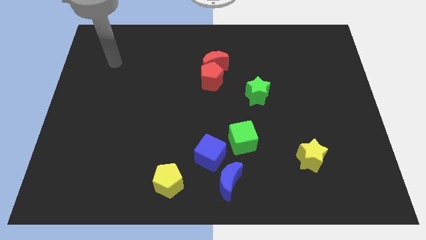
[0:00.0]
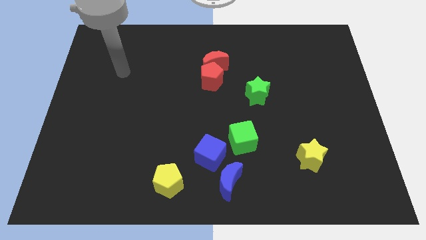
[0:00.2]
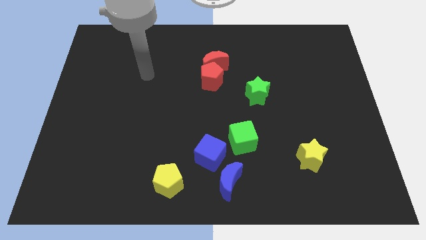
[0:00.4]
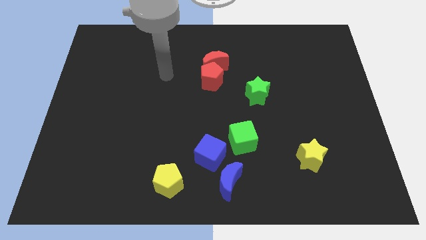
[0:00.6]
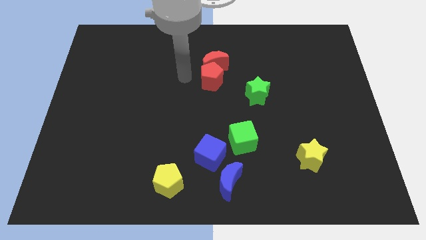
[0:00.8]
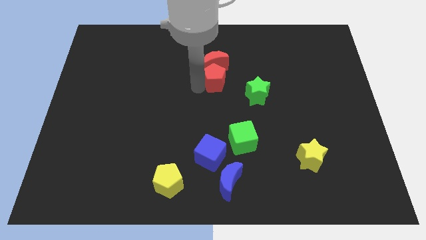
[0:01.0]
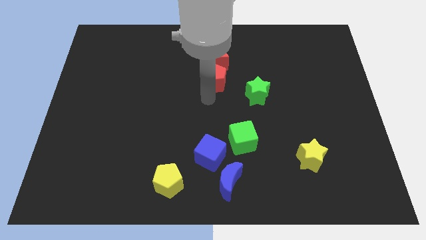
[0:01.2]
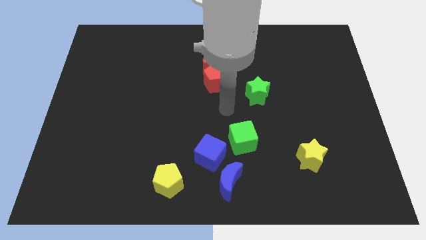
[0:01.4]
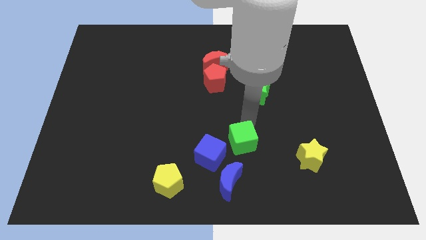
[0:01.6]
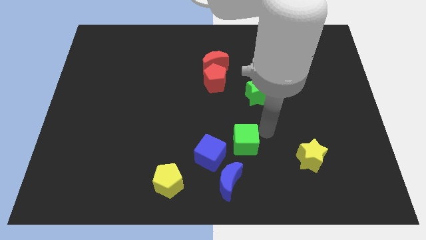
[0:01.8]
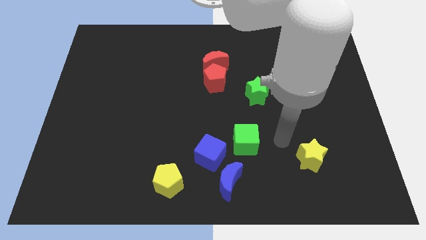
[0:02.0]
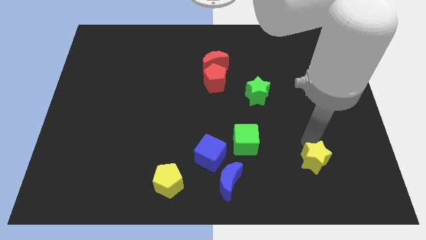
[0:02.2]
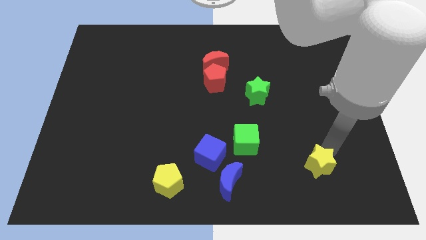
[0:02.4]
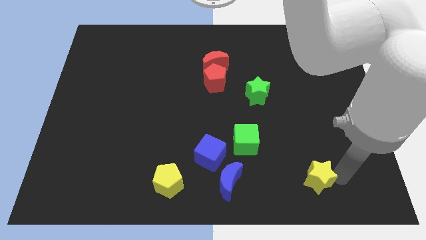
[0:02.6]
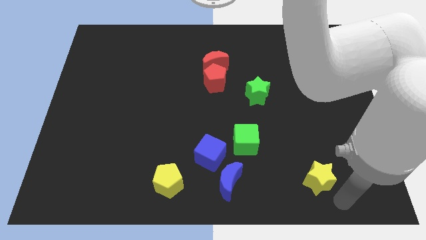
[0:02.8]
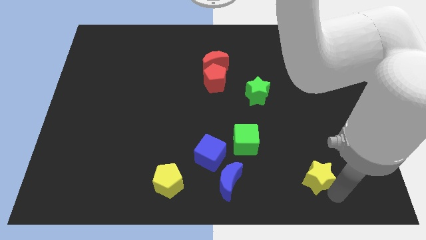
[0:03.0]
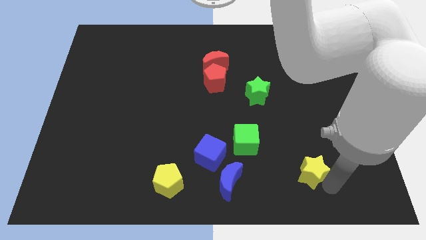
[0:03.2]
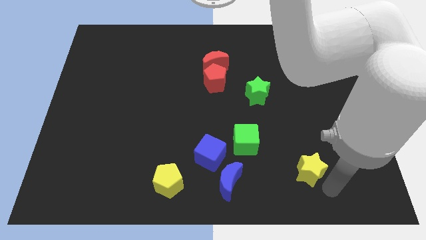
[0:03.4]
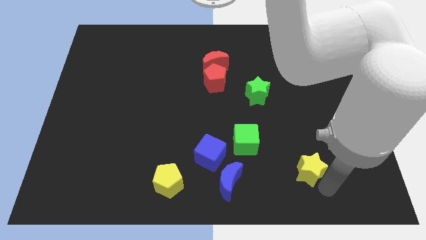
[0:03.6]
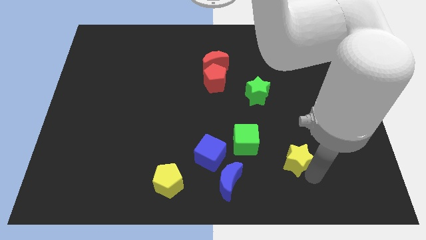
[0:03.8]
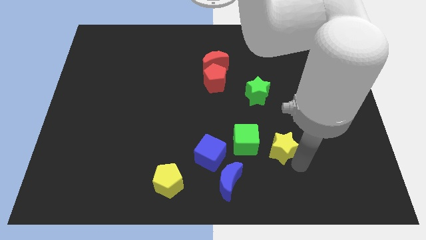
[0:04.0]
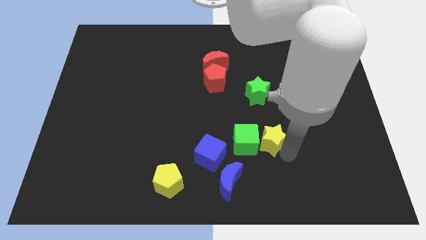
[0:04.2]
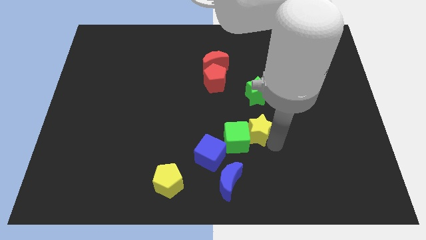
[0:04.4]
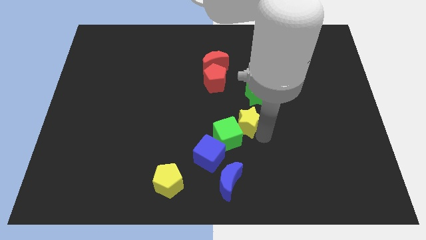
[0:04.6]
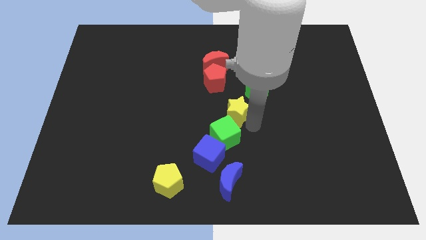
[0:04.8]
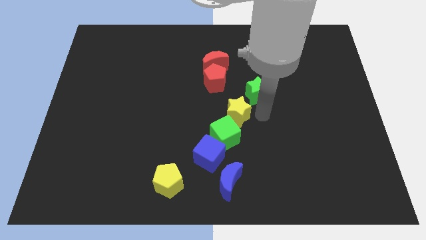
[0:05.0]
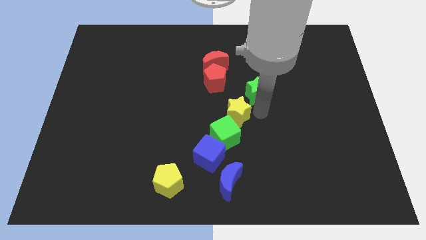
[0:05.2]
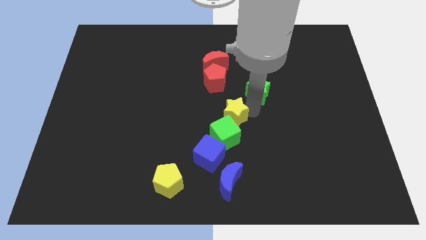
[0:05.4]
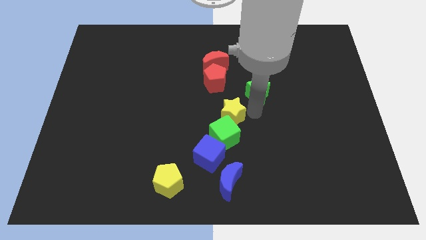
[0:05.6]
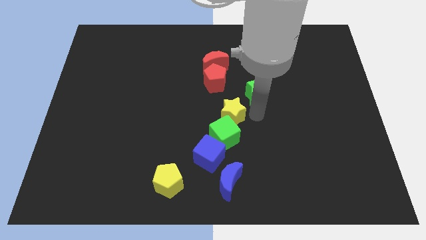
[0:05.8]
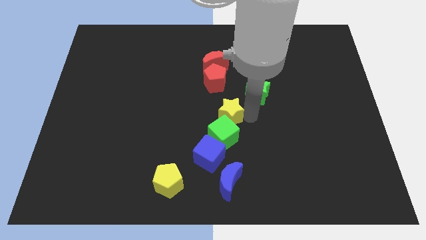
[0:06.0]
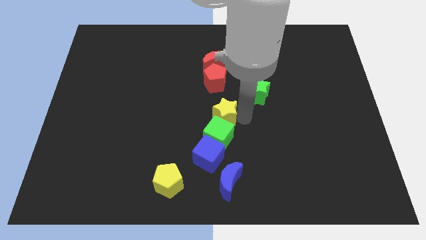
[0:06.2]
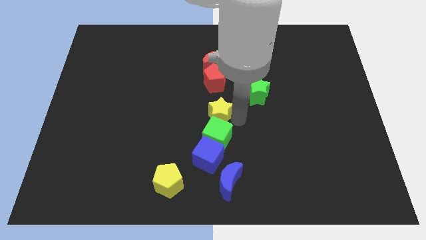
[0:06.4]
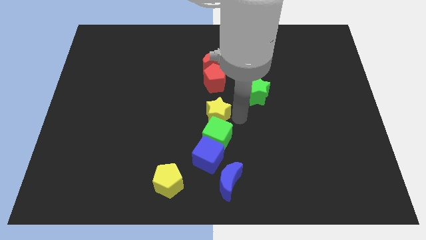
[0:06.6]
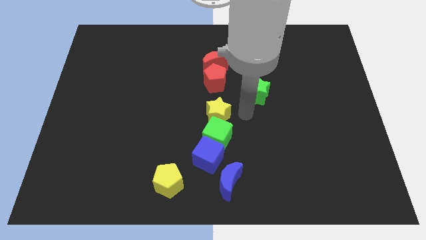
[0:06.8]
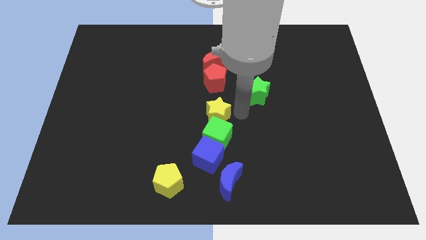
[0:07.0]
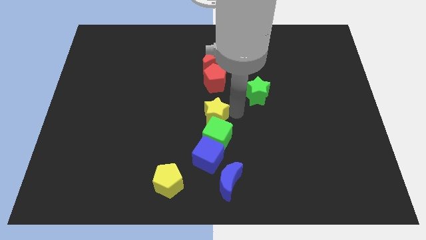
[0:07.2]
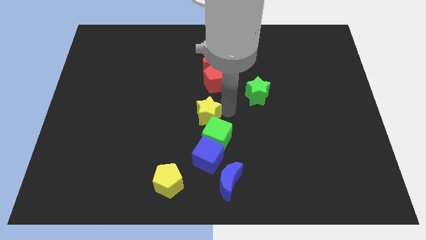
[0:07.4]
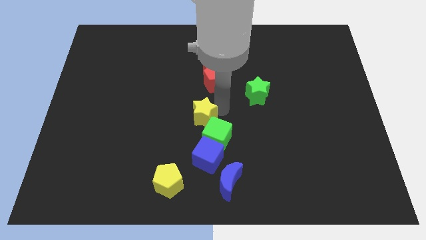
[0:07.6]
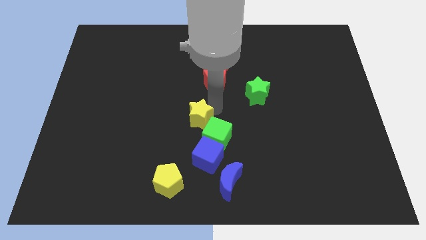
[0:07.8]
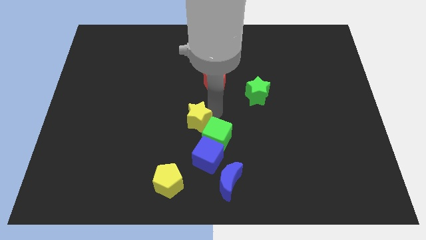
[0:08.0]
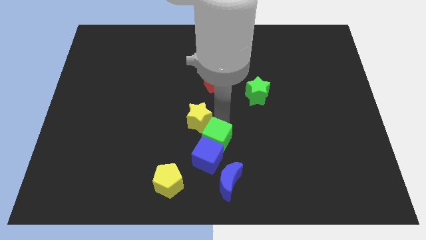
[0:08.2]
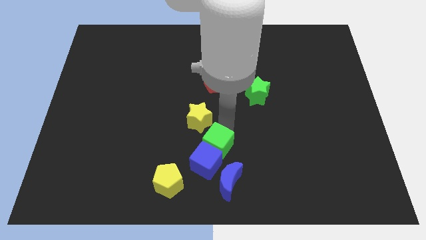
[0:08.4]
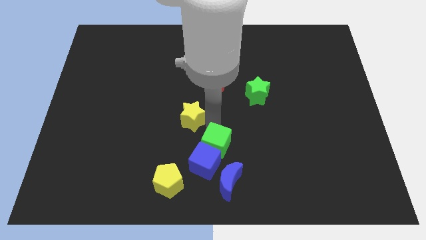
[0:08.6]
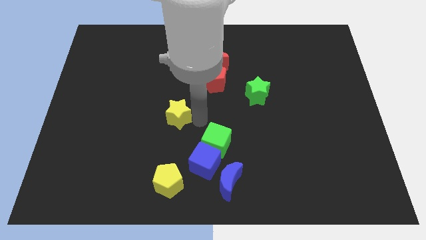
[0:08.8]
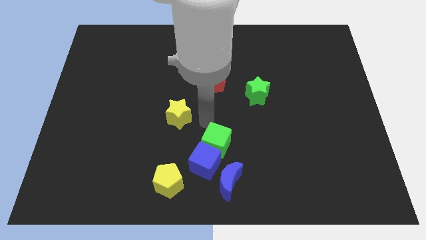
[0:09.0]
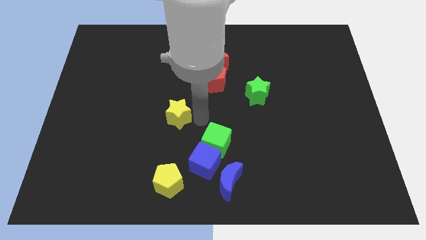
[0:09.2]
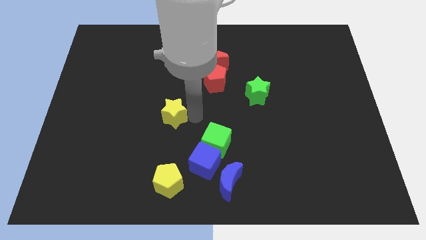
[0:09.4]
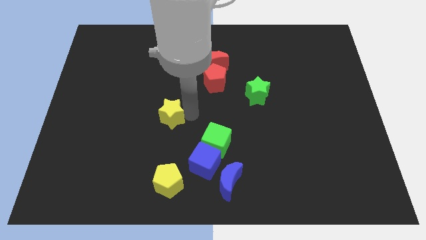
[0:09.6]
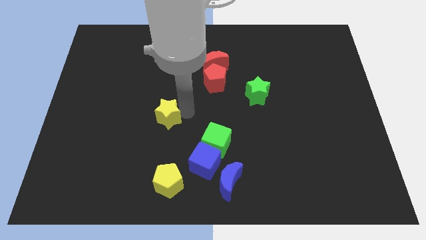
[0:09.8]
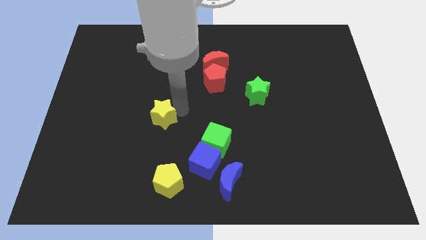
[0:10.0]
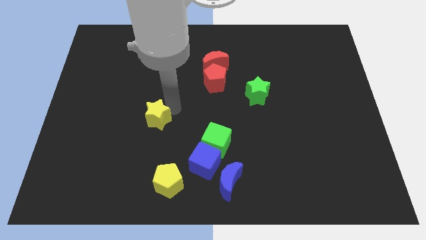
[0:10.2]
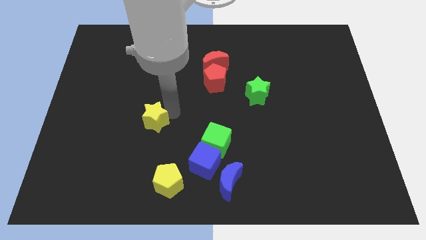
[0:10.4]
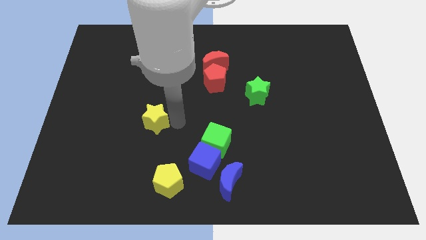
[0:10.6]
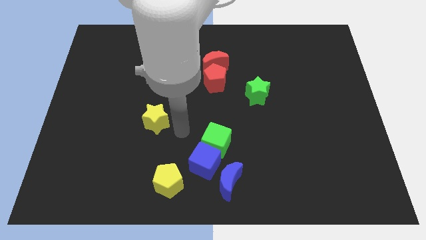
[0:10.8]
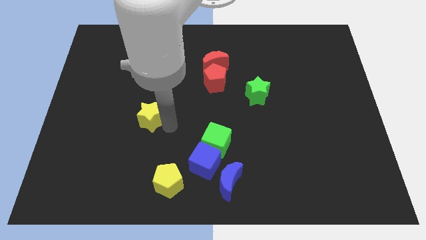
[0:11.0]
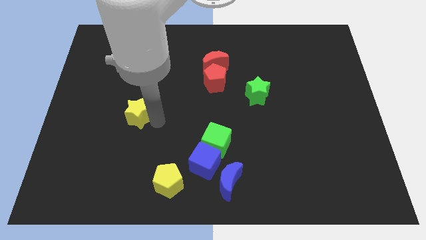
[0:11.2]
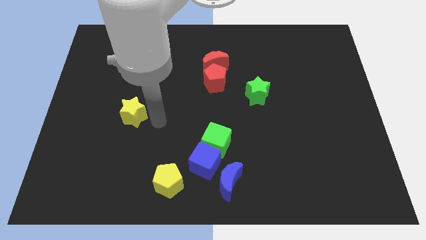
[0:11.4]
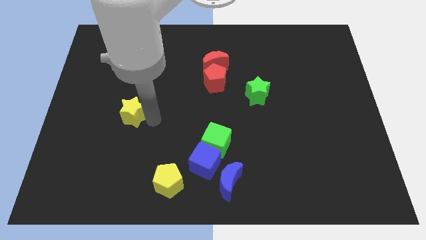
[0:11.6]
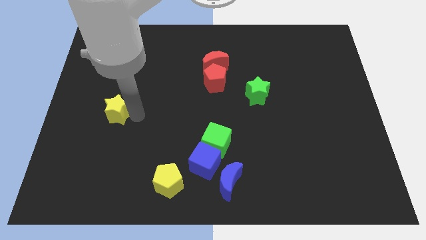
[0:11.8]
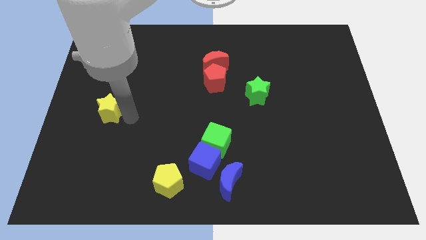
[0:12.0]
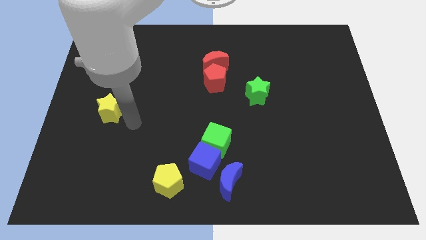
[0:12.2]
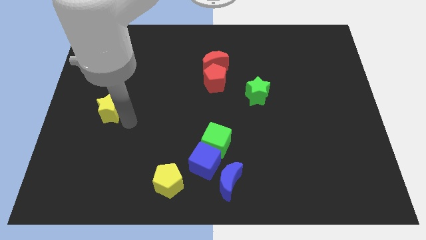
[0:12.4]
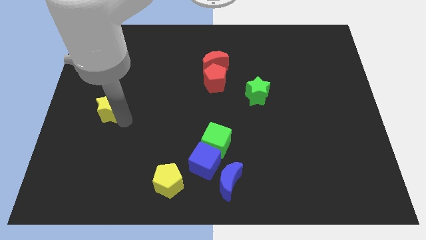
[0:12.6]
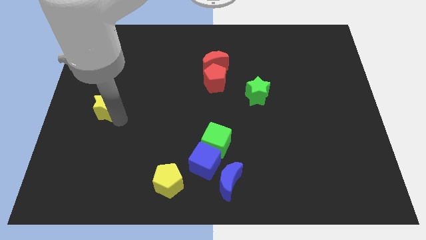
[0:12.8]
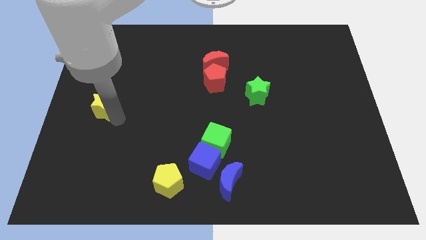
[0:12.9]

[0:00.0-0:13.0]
put the yellow star to the center left

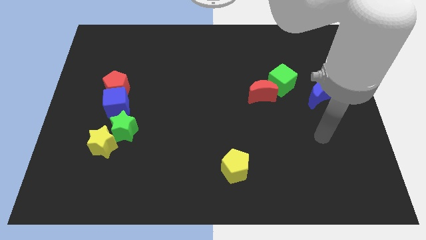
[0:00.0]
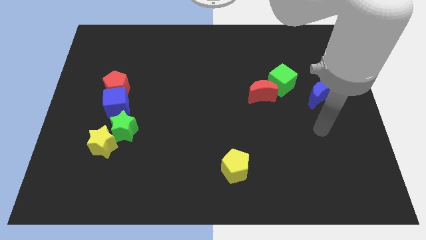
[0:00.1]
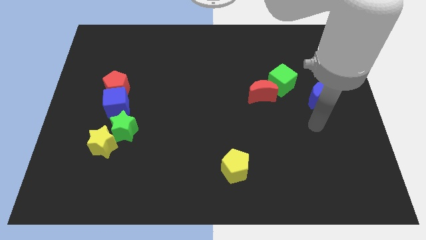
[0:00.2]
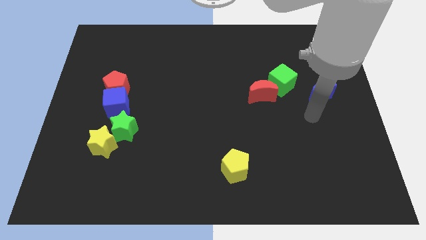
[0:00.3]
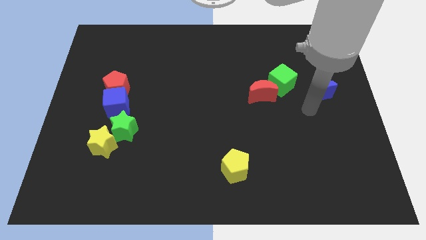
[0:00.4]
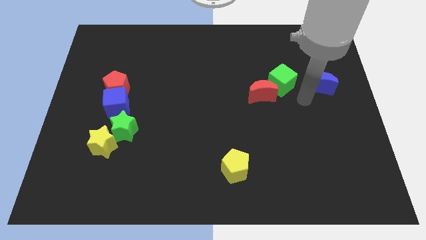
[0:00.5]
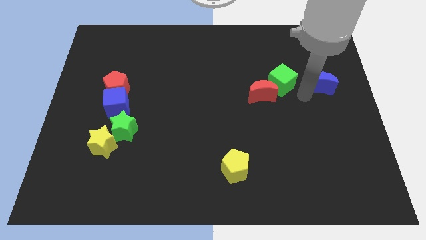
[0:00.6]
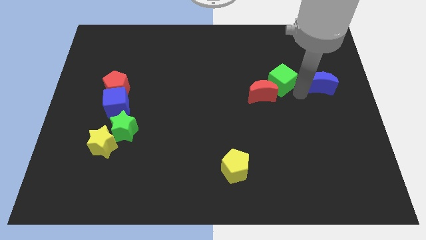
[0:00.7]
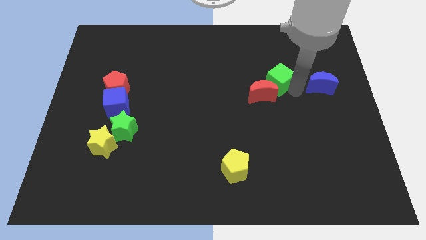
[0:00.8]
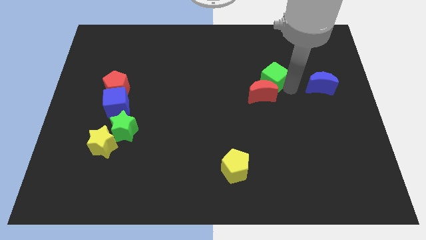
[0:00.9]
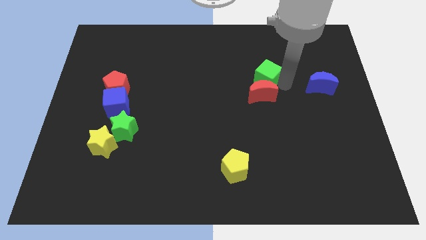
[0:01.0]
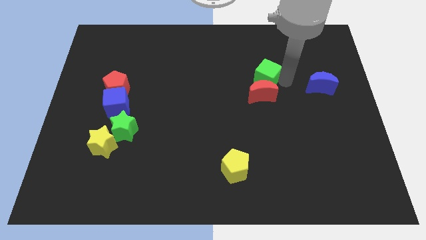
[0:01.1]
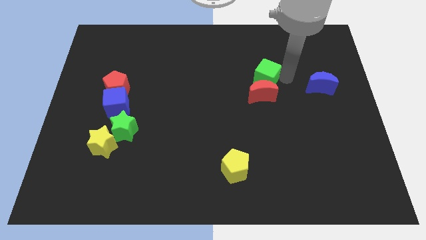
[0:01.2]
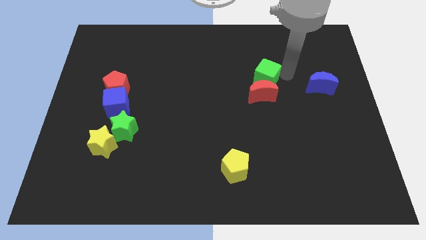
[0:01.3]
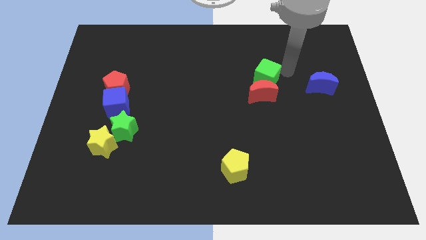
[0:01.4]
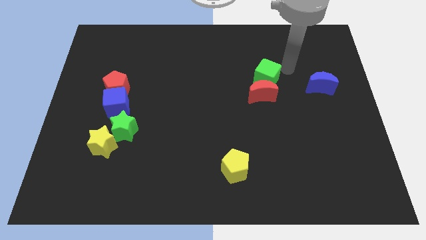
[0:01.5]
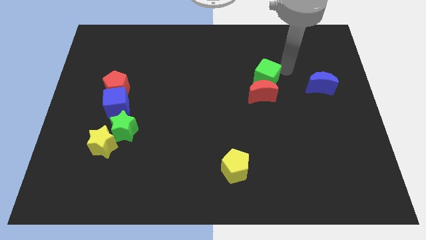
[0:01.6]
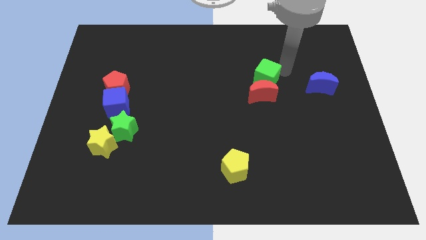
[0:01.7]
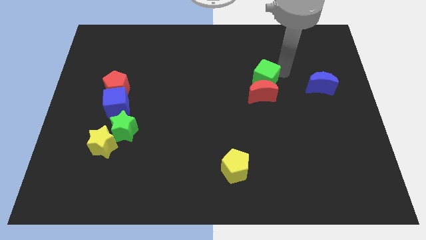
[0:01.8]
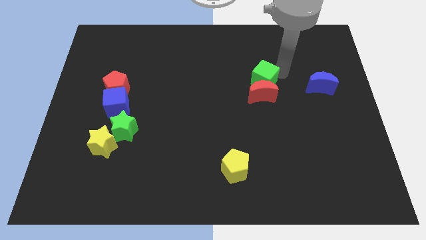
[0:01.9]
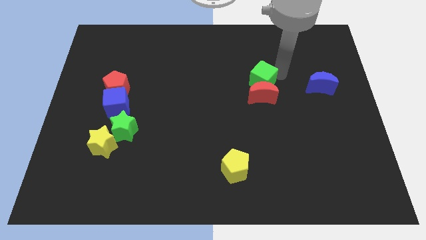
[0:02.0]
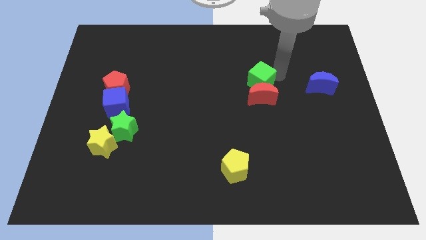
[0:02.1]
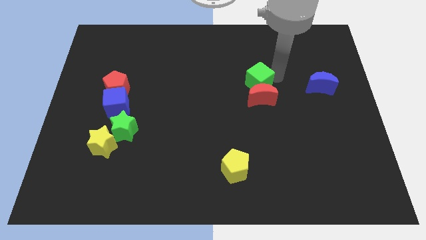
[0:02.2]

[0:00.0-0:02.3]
move the green cube to the center
